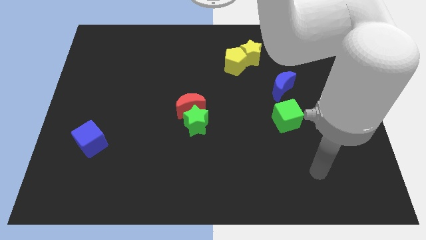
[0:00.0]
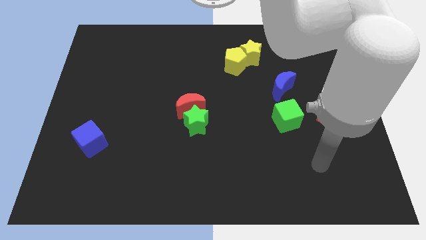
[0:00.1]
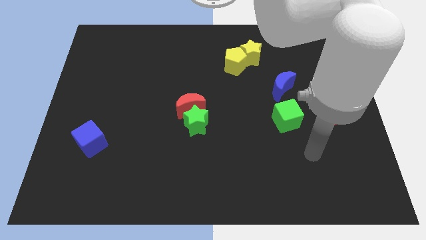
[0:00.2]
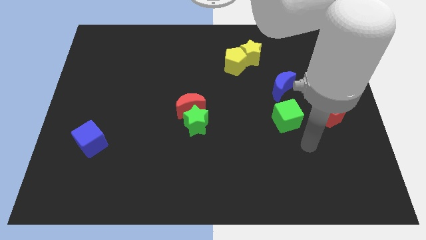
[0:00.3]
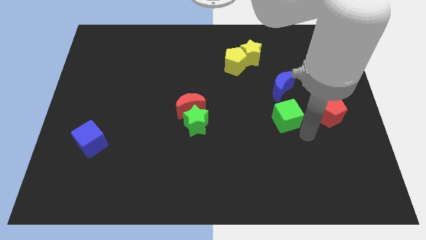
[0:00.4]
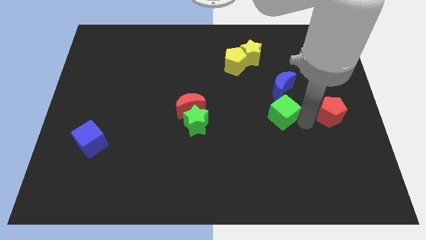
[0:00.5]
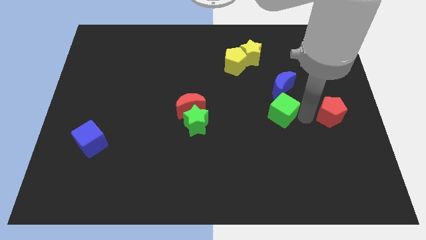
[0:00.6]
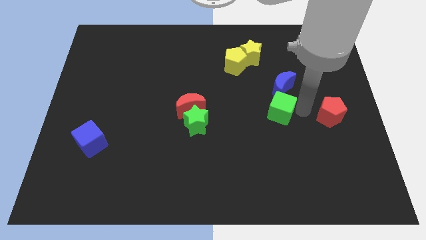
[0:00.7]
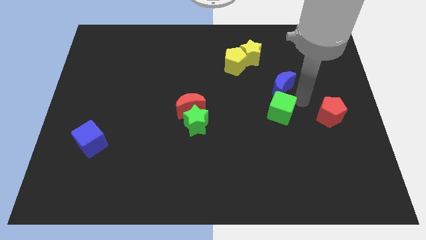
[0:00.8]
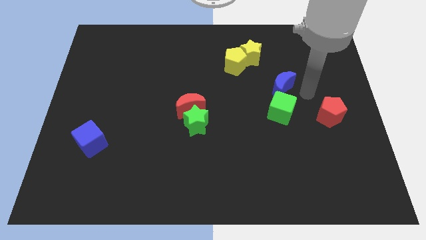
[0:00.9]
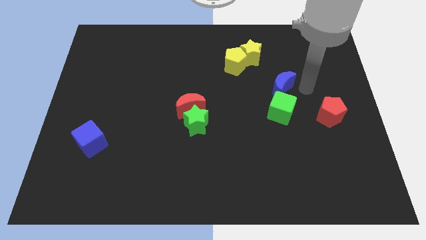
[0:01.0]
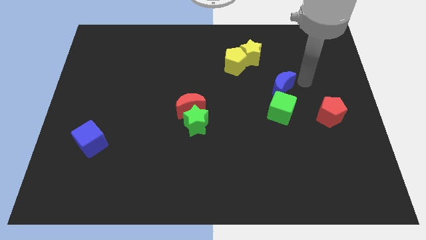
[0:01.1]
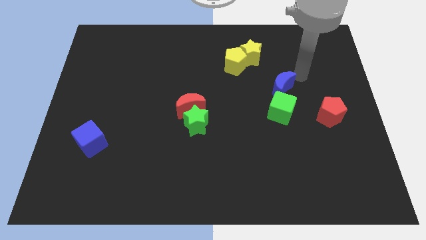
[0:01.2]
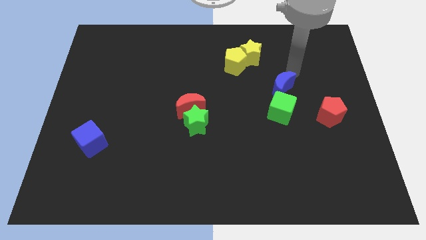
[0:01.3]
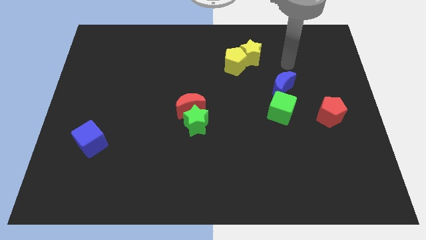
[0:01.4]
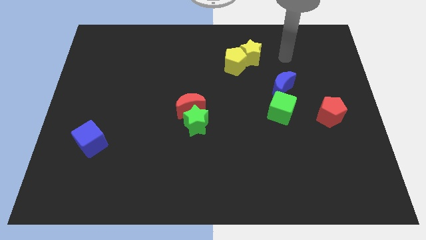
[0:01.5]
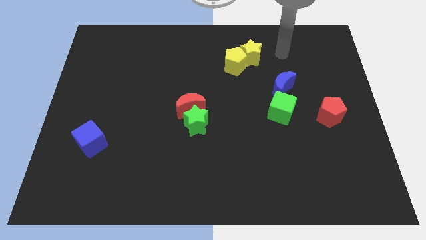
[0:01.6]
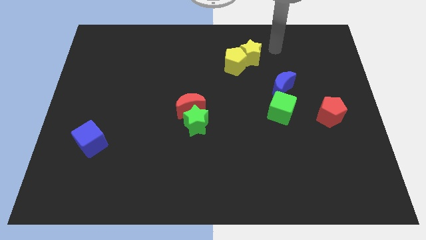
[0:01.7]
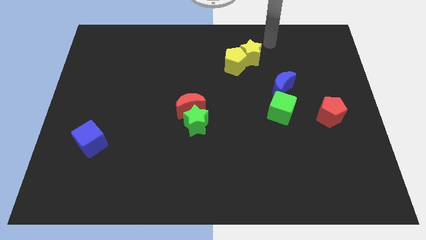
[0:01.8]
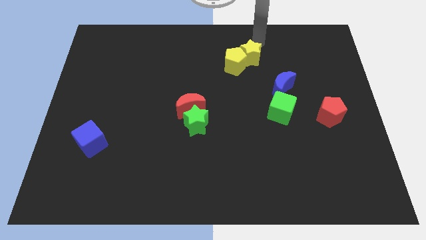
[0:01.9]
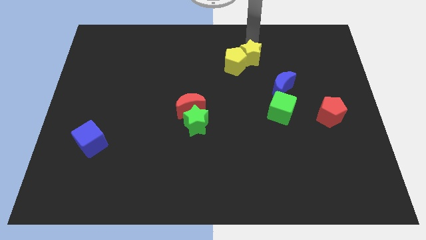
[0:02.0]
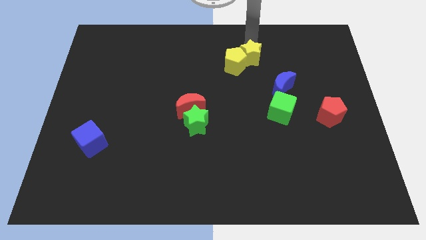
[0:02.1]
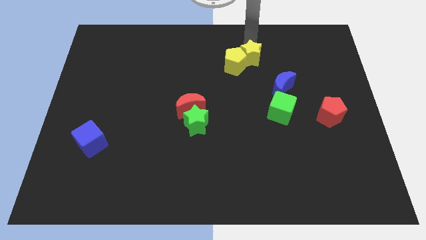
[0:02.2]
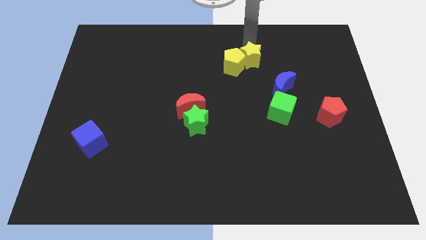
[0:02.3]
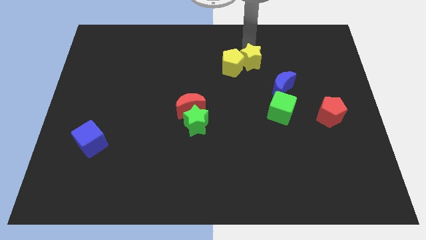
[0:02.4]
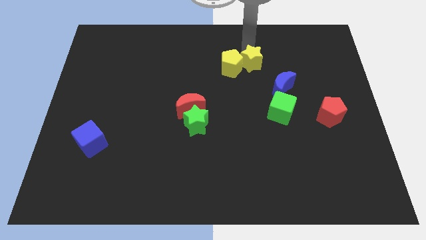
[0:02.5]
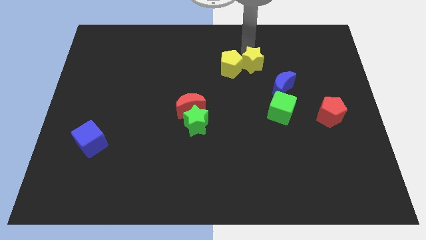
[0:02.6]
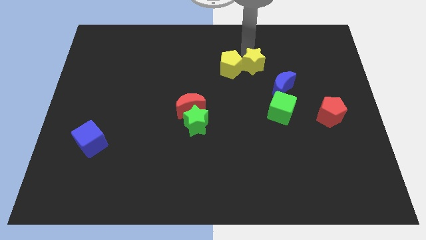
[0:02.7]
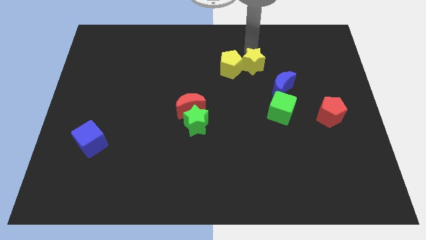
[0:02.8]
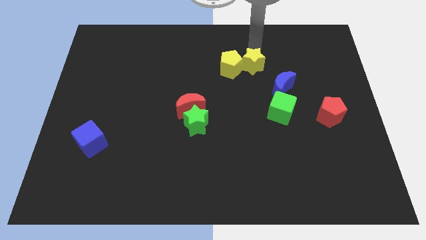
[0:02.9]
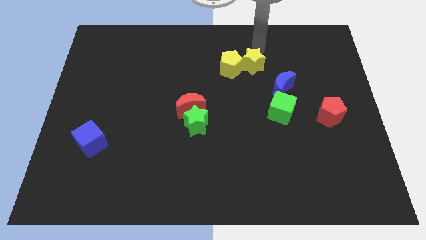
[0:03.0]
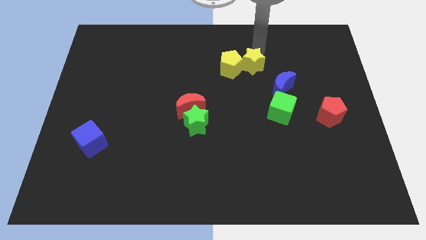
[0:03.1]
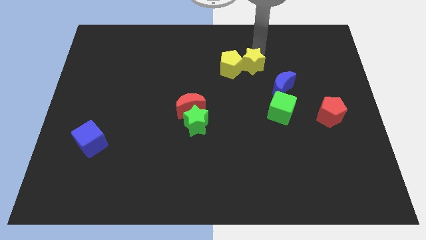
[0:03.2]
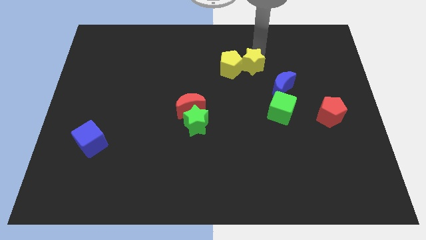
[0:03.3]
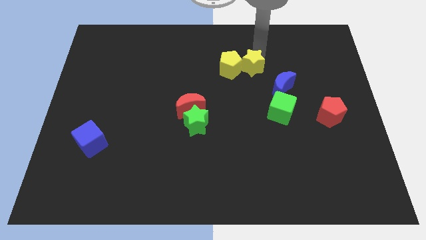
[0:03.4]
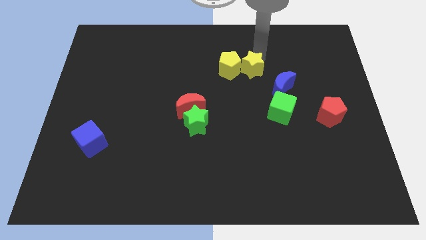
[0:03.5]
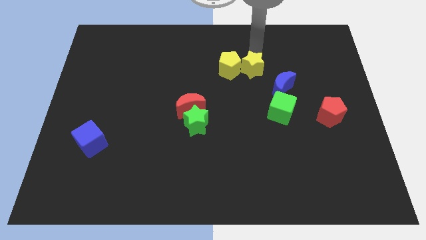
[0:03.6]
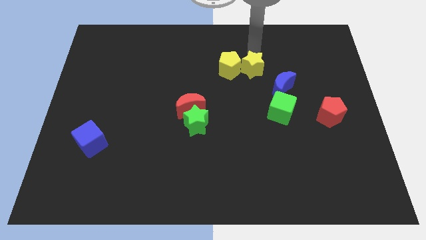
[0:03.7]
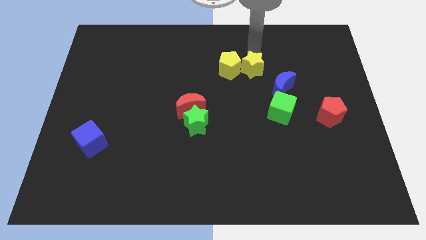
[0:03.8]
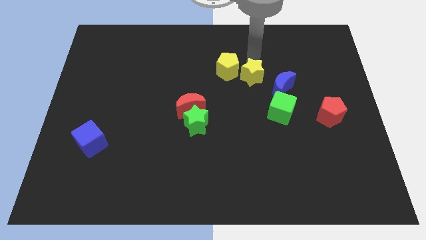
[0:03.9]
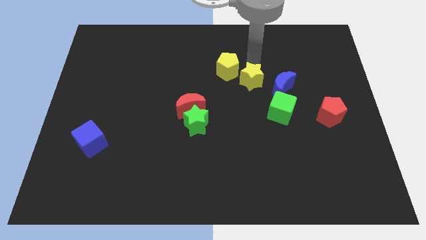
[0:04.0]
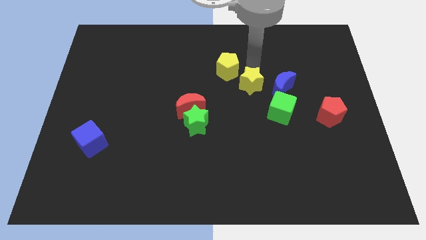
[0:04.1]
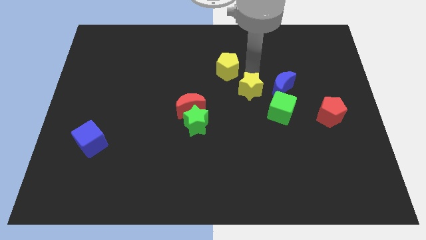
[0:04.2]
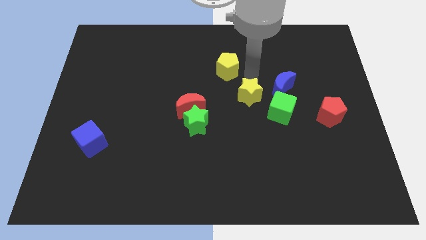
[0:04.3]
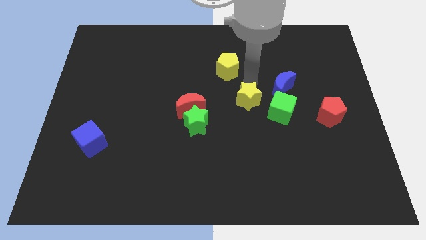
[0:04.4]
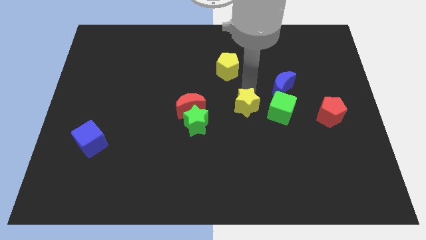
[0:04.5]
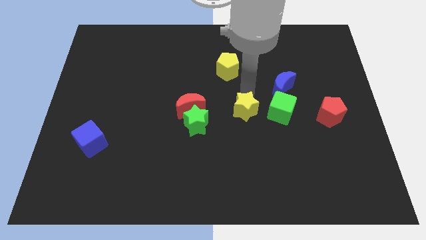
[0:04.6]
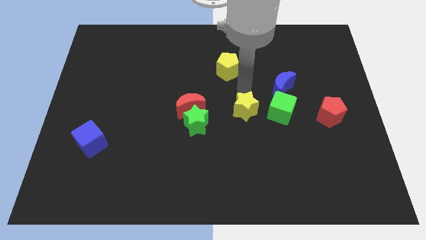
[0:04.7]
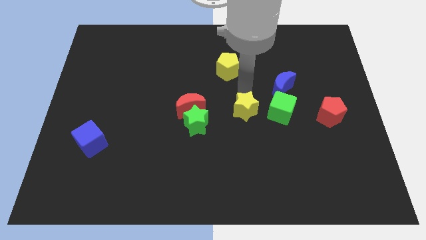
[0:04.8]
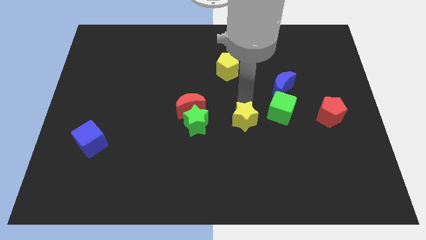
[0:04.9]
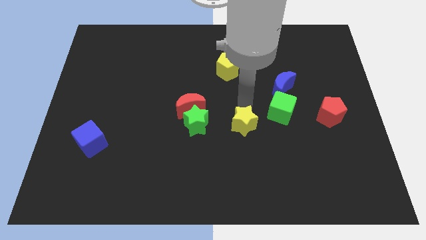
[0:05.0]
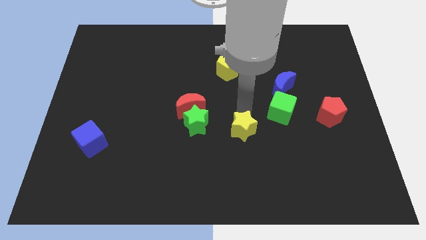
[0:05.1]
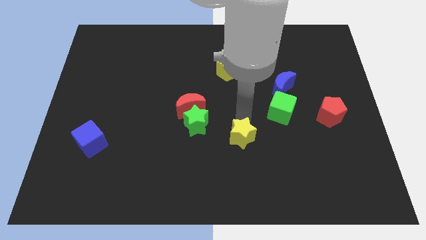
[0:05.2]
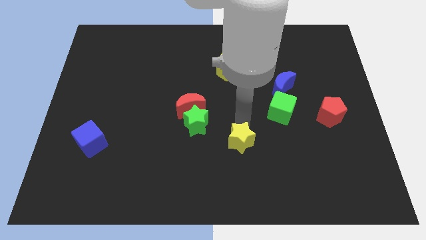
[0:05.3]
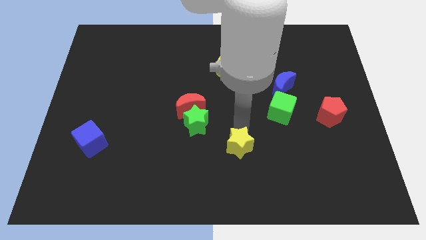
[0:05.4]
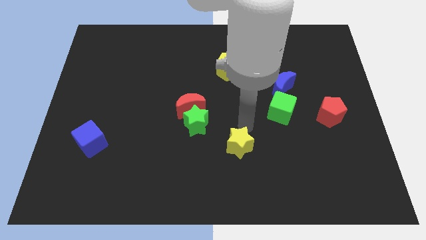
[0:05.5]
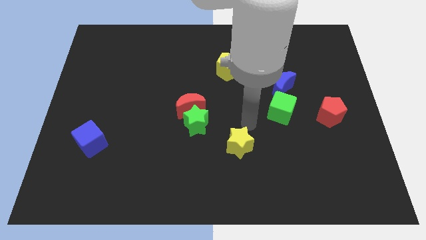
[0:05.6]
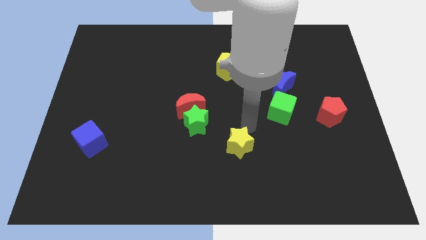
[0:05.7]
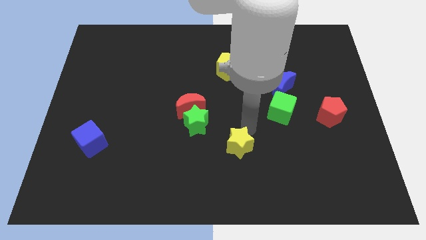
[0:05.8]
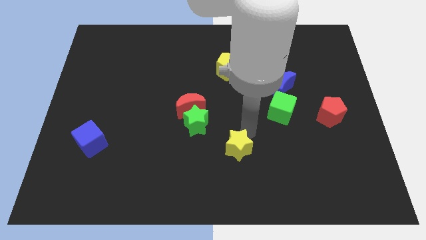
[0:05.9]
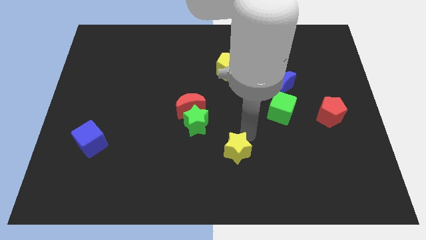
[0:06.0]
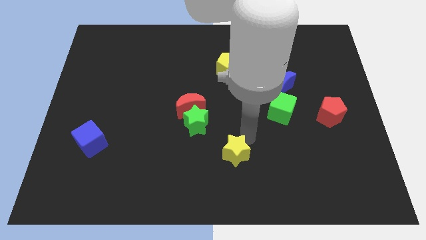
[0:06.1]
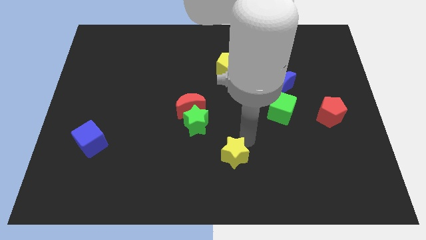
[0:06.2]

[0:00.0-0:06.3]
move the yellow star to the bottom
